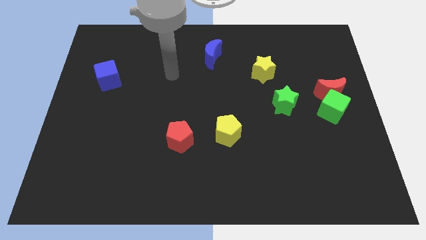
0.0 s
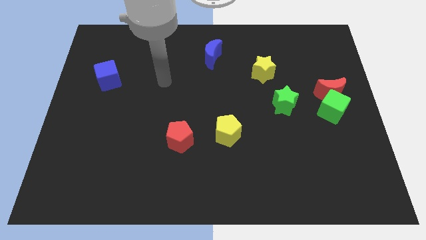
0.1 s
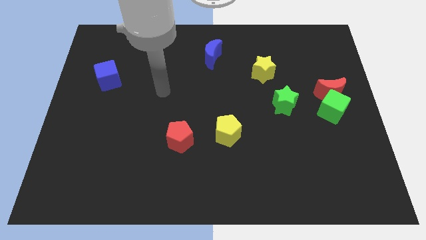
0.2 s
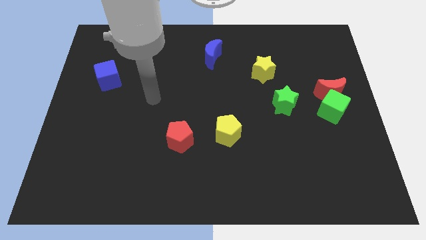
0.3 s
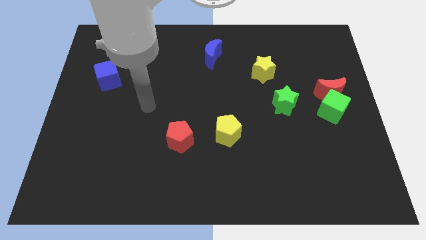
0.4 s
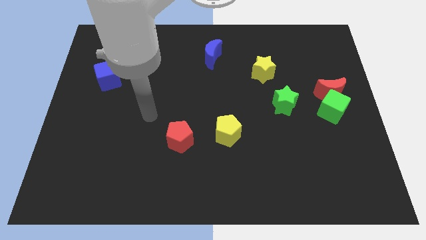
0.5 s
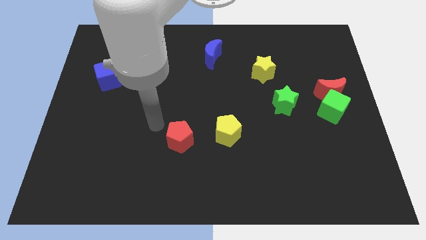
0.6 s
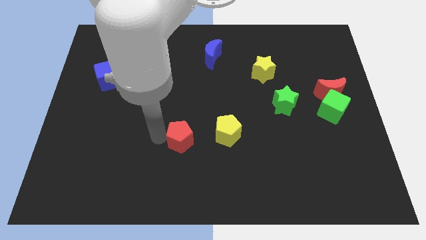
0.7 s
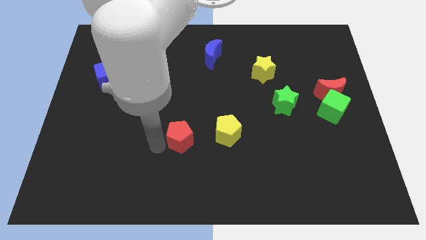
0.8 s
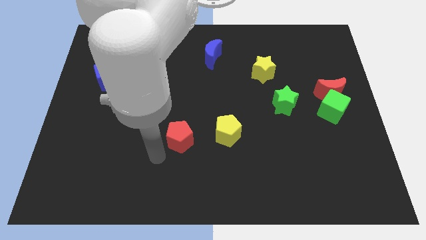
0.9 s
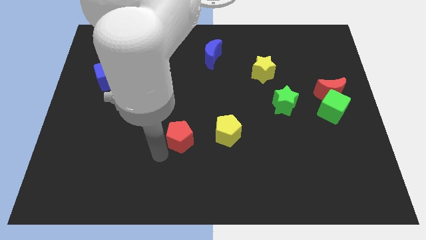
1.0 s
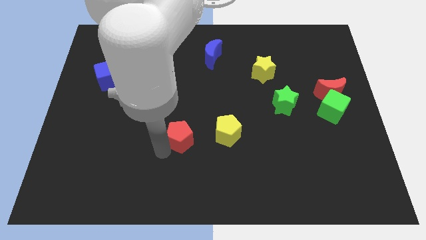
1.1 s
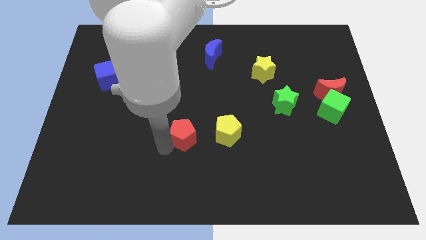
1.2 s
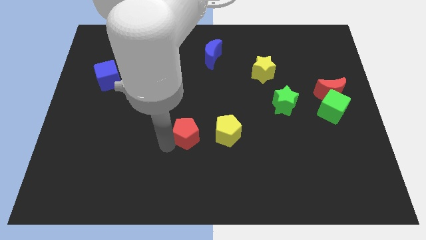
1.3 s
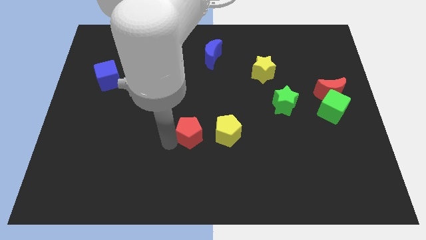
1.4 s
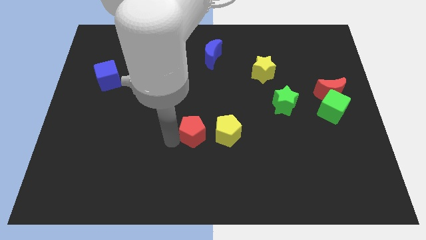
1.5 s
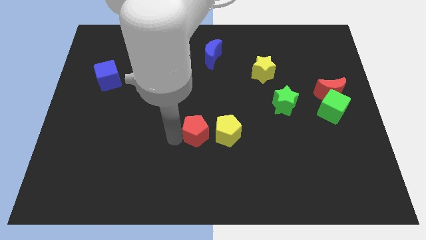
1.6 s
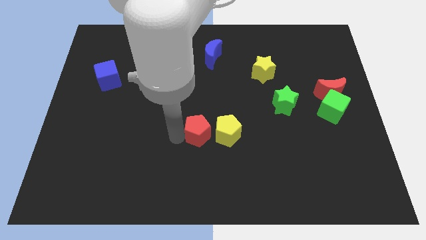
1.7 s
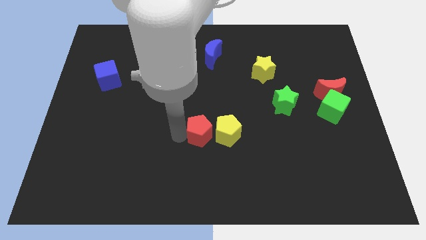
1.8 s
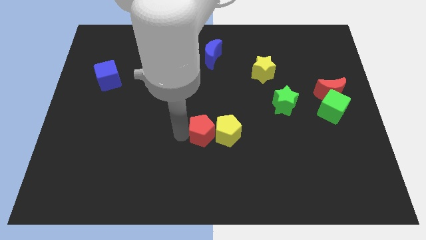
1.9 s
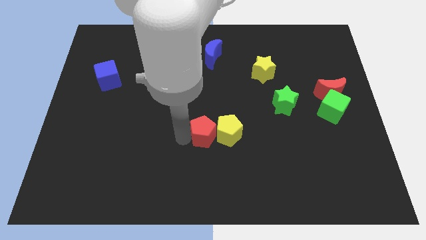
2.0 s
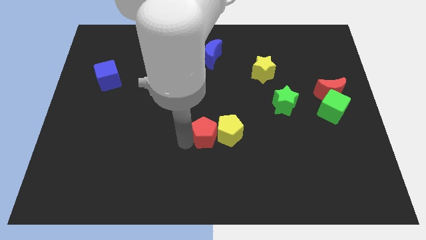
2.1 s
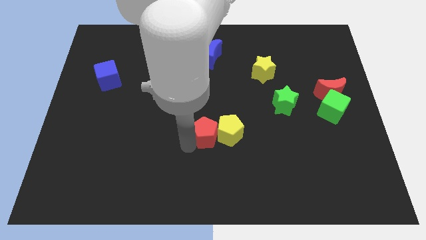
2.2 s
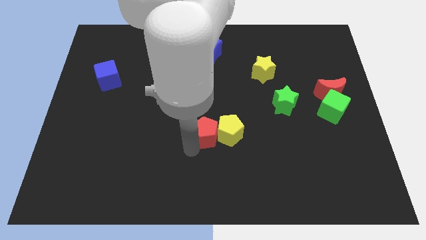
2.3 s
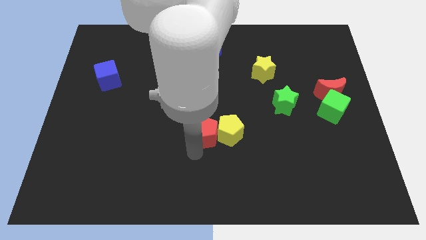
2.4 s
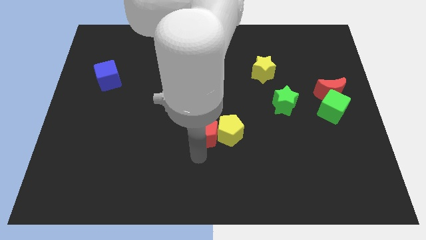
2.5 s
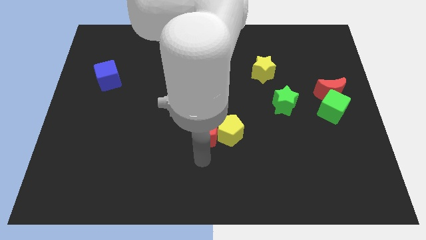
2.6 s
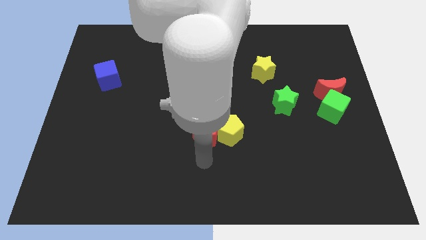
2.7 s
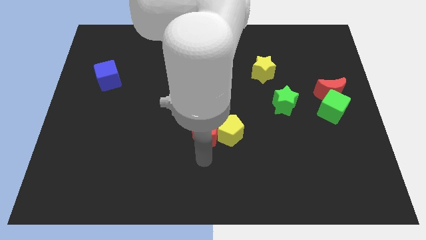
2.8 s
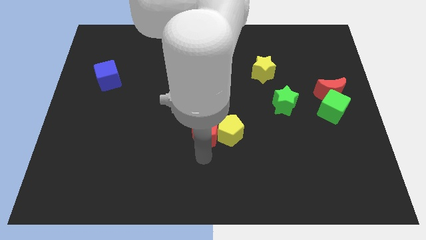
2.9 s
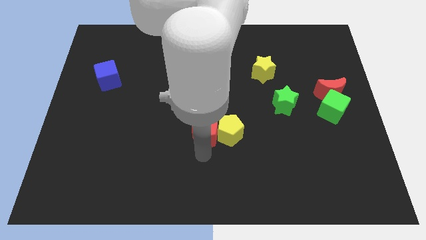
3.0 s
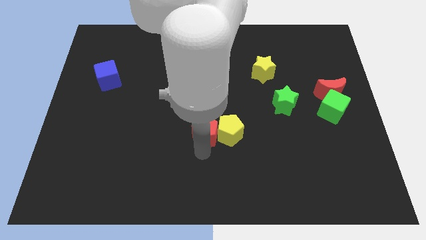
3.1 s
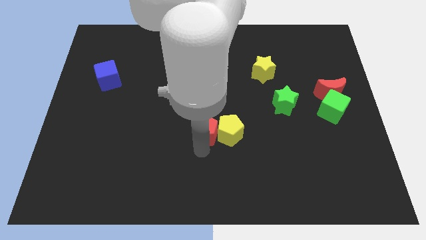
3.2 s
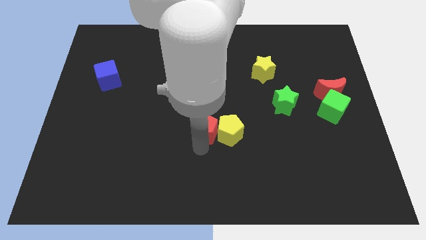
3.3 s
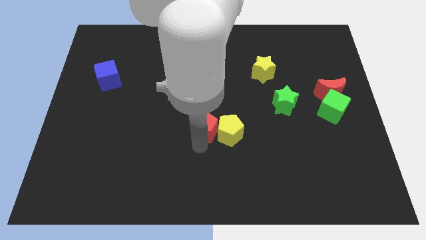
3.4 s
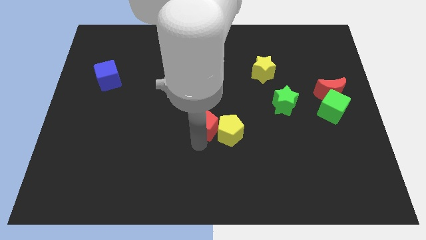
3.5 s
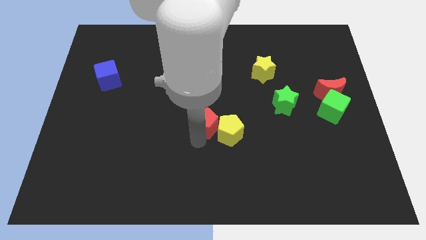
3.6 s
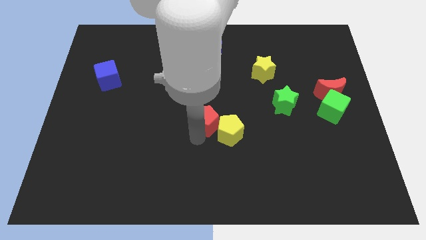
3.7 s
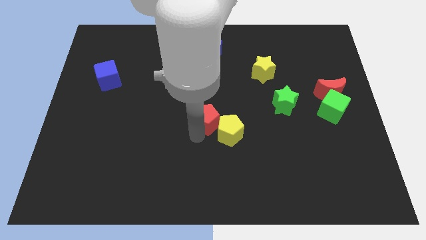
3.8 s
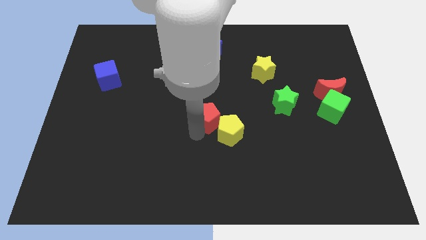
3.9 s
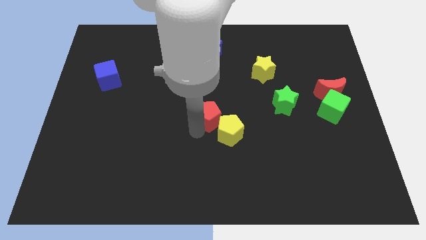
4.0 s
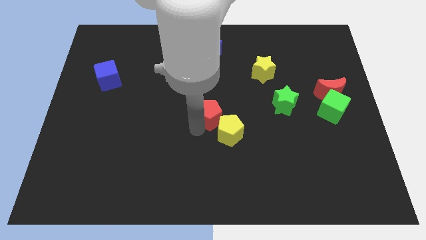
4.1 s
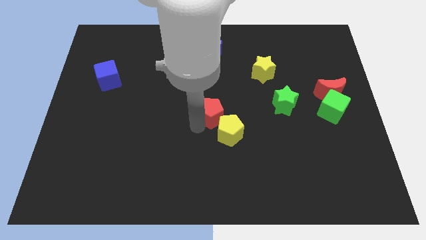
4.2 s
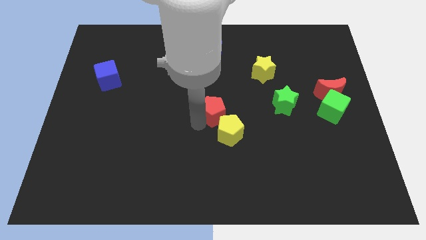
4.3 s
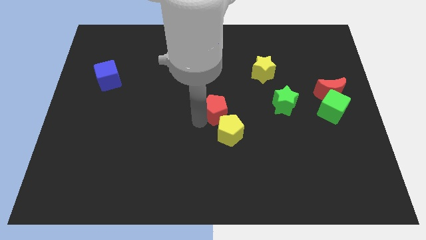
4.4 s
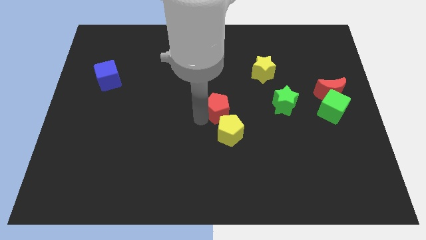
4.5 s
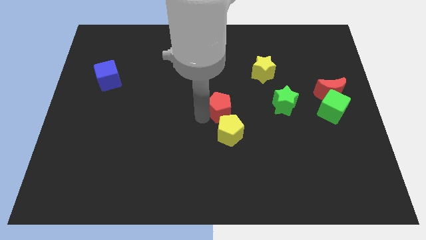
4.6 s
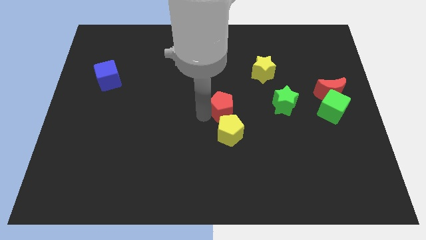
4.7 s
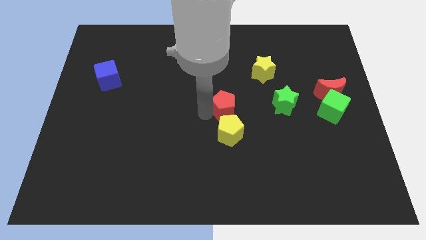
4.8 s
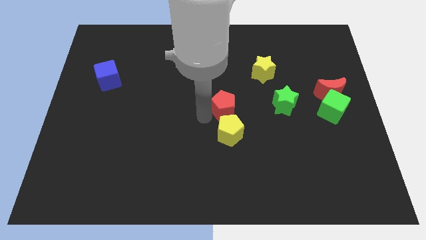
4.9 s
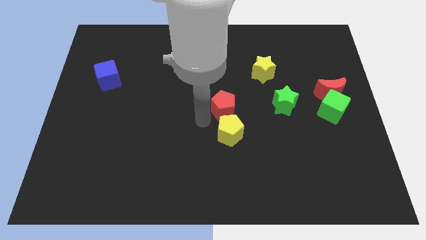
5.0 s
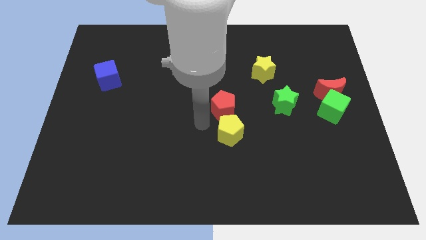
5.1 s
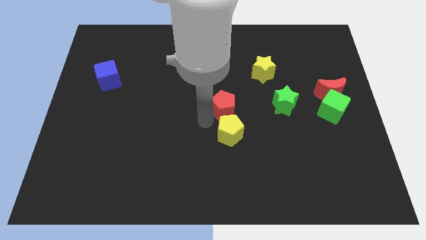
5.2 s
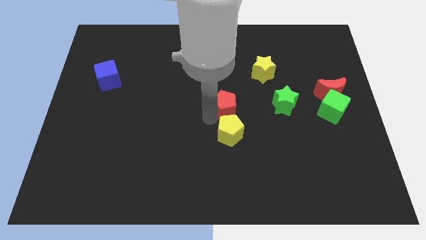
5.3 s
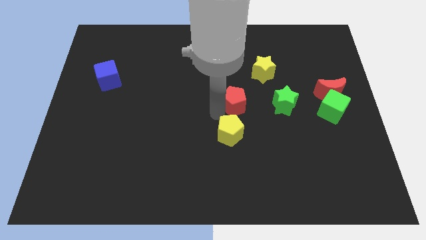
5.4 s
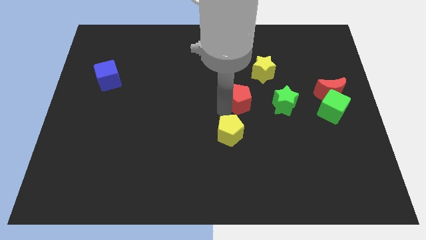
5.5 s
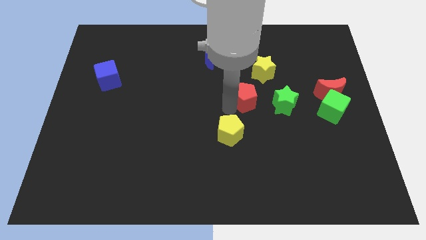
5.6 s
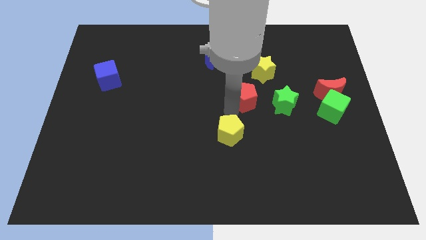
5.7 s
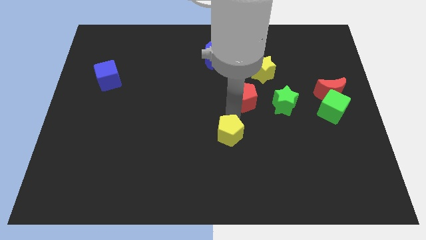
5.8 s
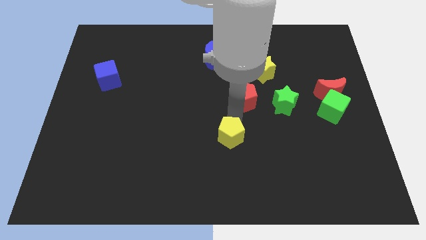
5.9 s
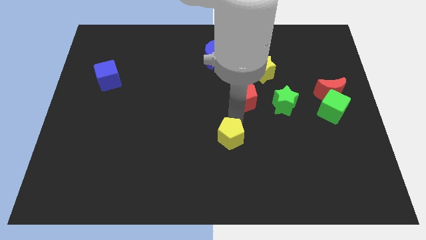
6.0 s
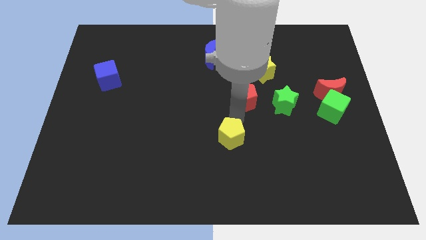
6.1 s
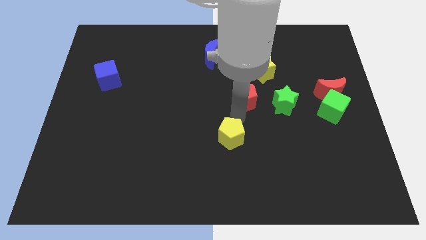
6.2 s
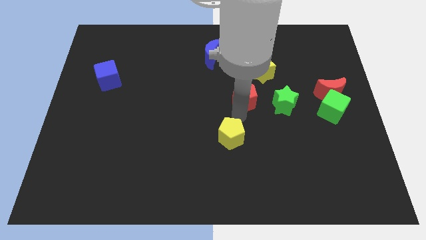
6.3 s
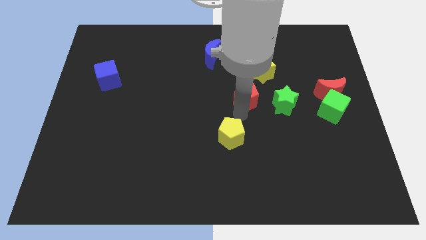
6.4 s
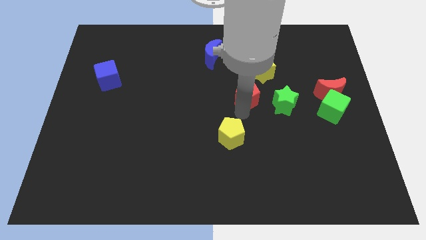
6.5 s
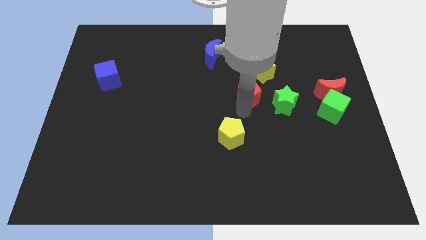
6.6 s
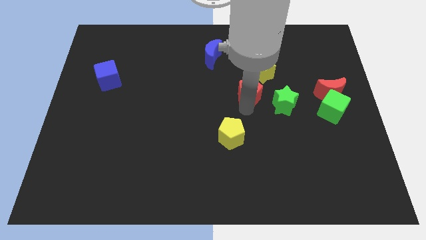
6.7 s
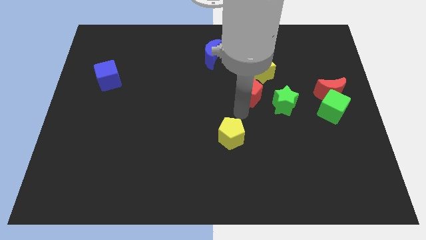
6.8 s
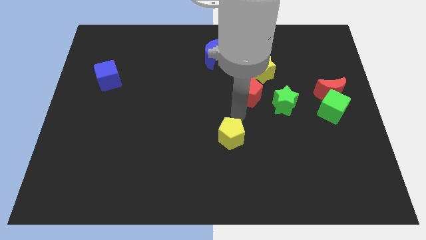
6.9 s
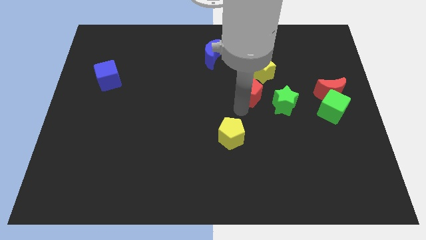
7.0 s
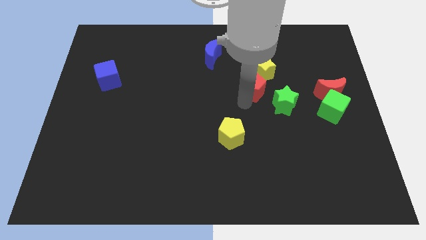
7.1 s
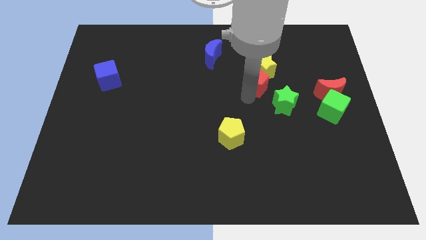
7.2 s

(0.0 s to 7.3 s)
slide the red pentagon towards the yellow star

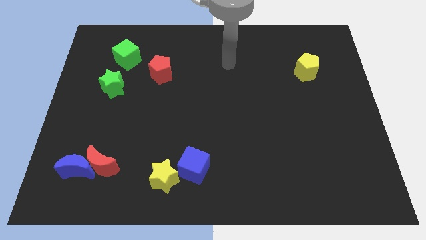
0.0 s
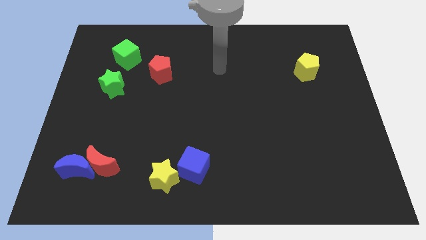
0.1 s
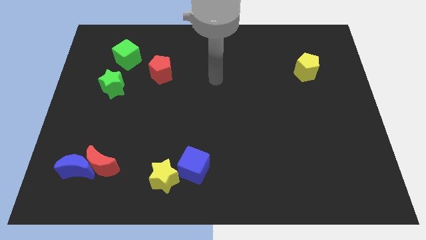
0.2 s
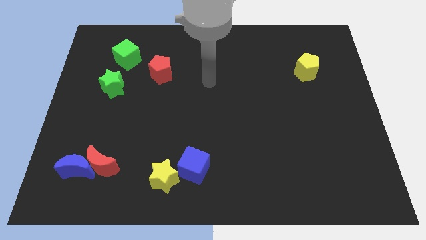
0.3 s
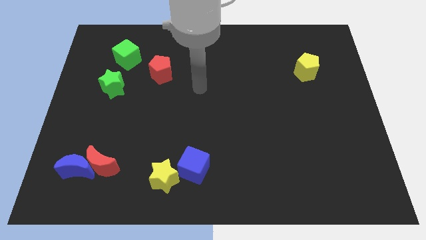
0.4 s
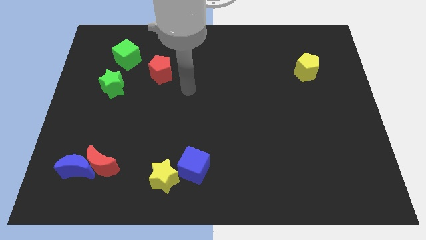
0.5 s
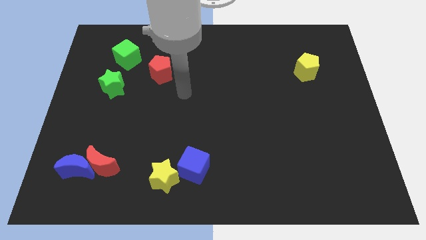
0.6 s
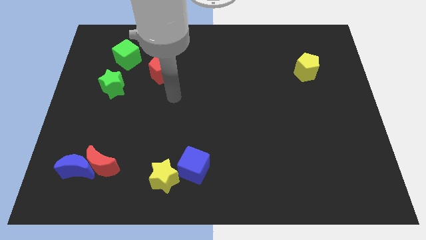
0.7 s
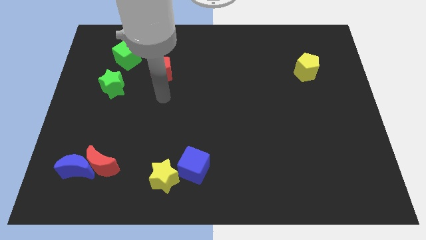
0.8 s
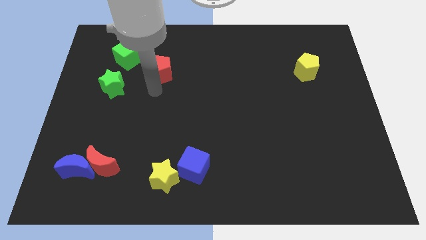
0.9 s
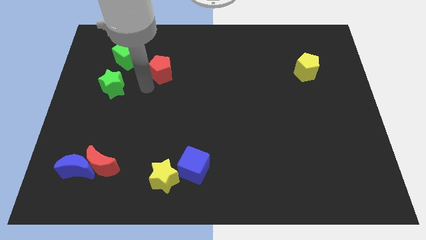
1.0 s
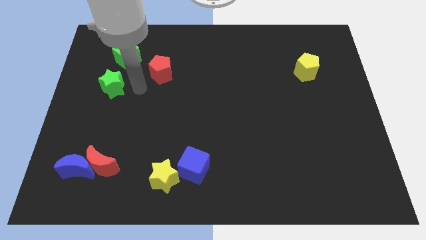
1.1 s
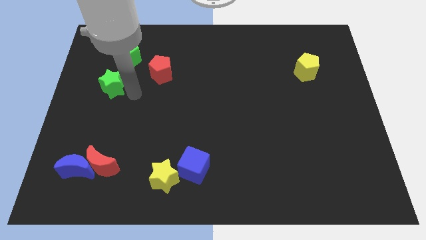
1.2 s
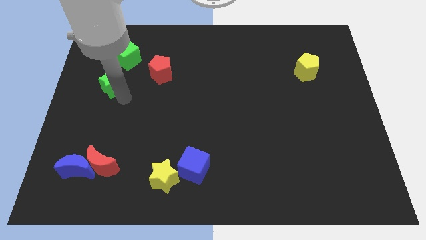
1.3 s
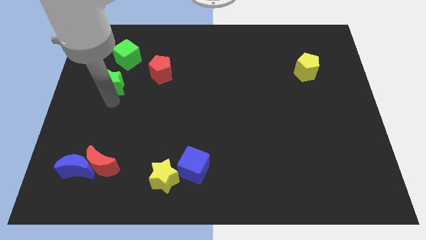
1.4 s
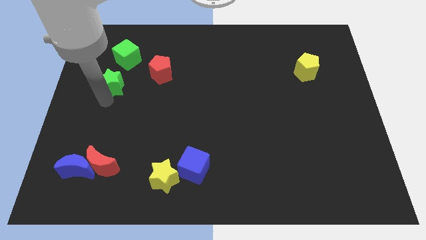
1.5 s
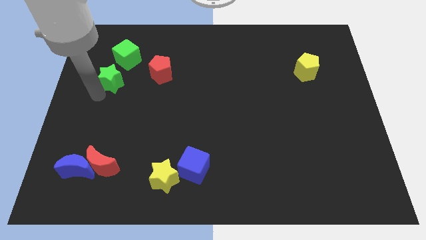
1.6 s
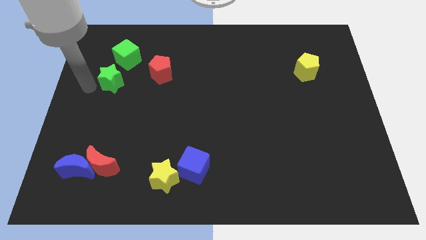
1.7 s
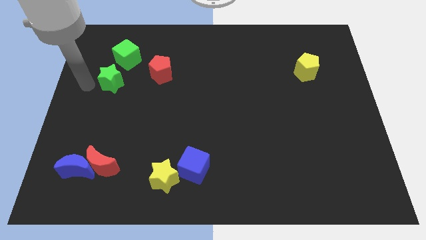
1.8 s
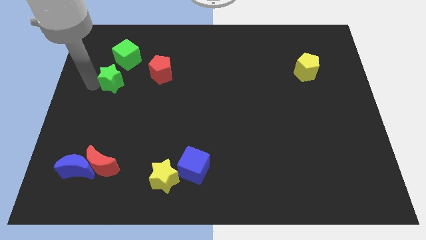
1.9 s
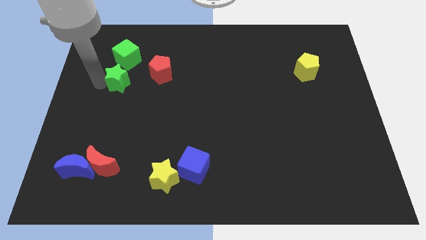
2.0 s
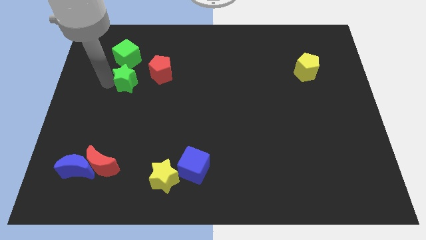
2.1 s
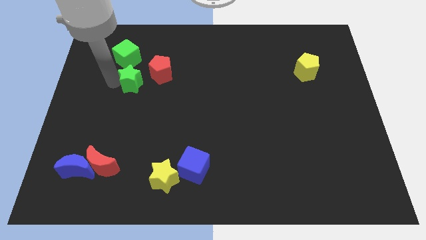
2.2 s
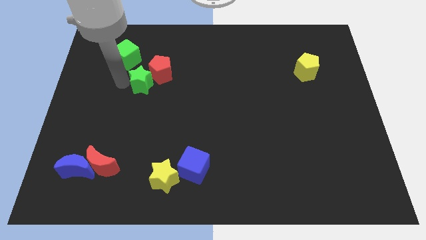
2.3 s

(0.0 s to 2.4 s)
put the green star next to the red pentagon
